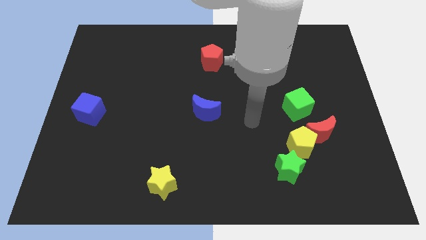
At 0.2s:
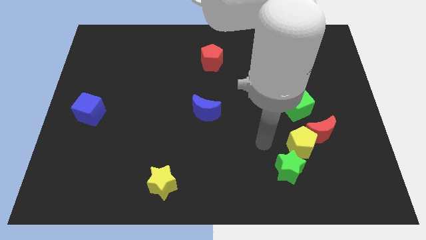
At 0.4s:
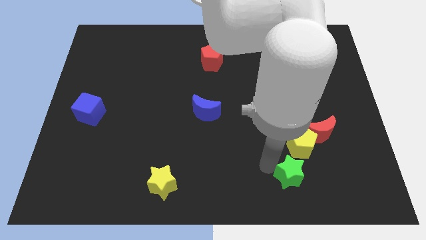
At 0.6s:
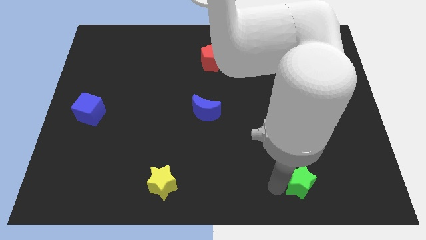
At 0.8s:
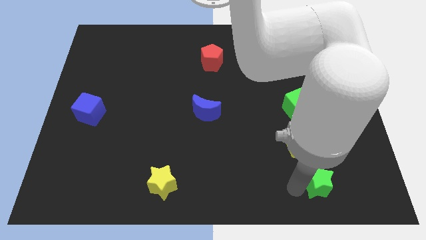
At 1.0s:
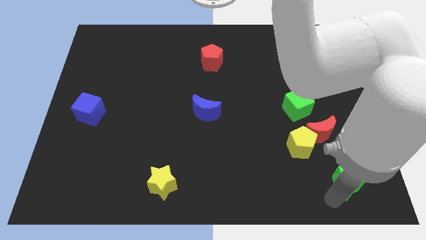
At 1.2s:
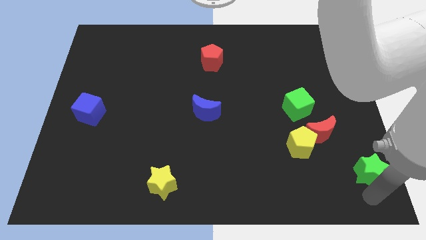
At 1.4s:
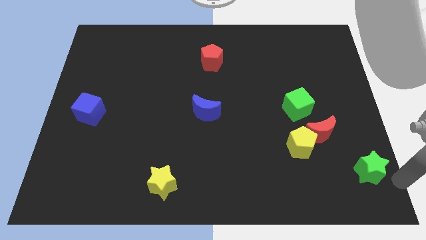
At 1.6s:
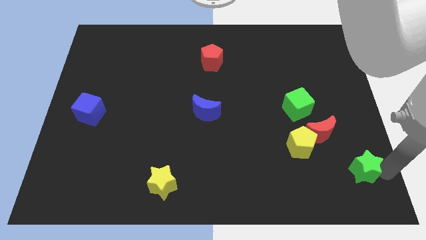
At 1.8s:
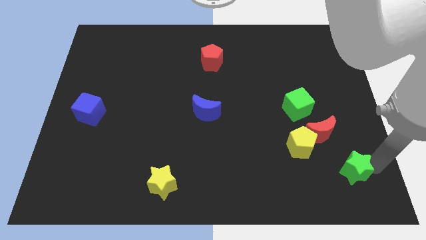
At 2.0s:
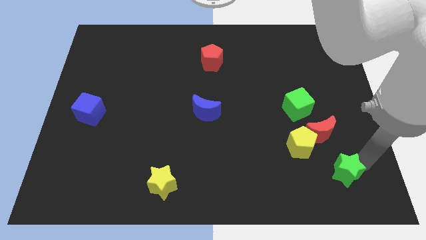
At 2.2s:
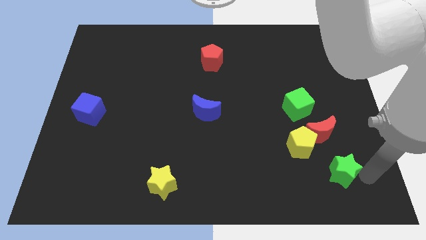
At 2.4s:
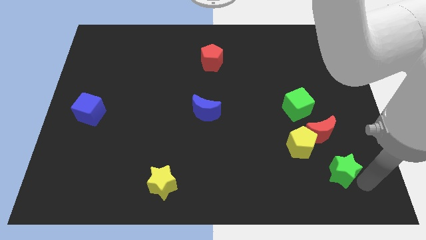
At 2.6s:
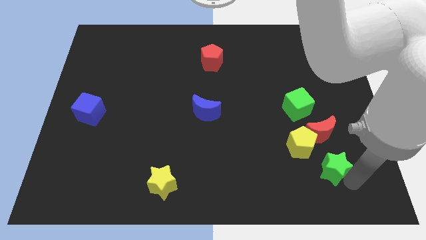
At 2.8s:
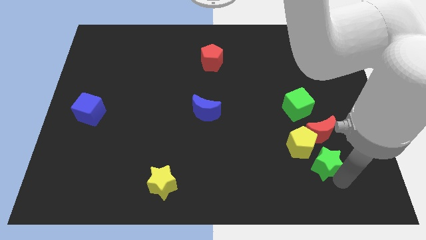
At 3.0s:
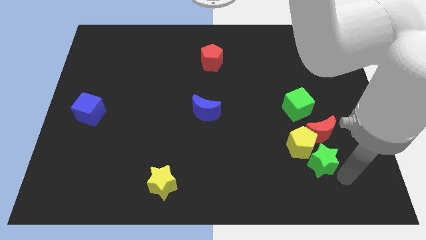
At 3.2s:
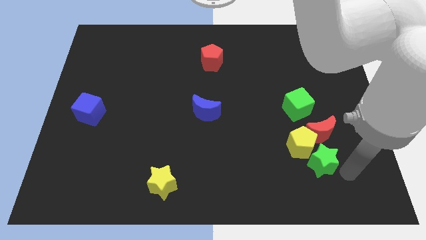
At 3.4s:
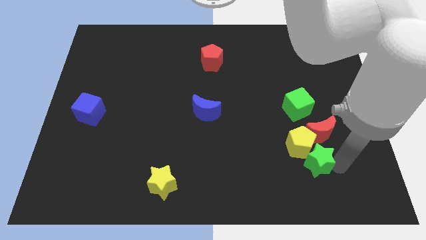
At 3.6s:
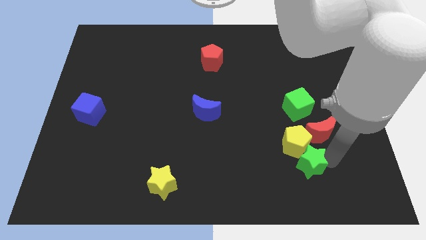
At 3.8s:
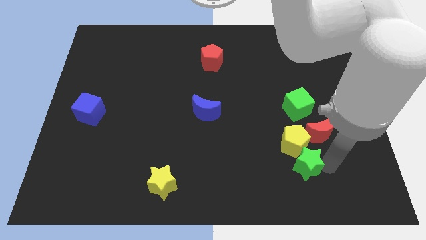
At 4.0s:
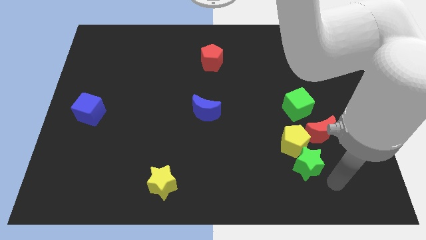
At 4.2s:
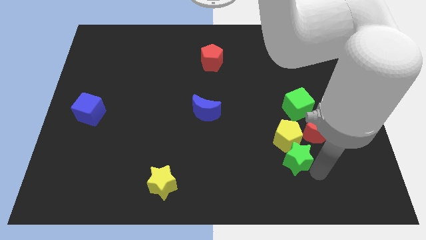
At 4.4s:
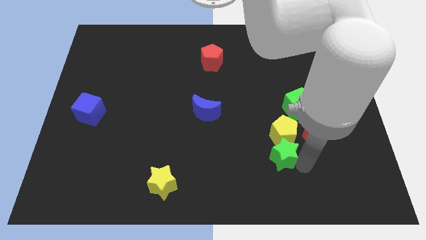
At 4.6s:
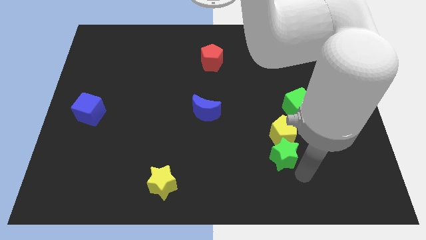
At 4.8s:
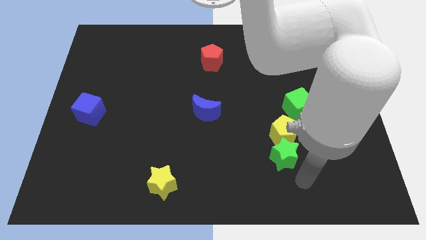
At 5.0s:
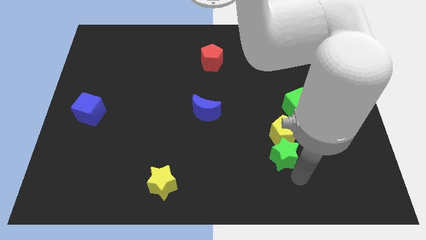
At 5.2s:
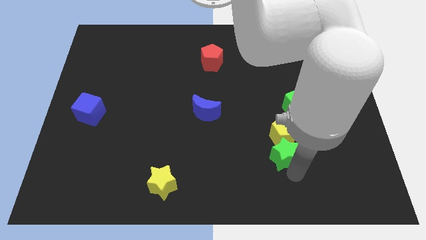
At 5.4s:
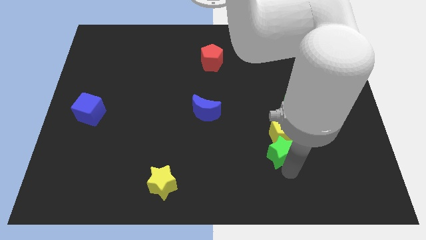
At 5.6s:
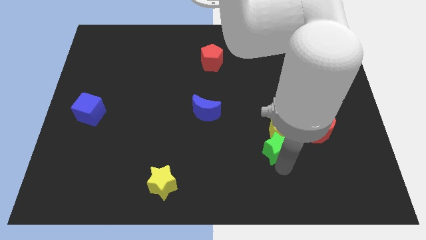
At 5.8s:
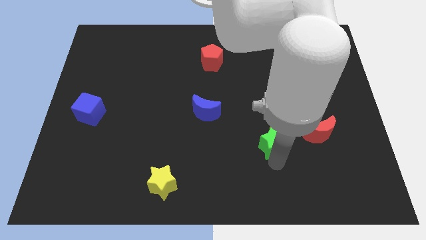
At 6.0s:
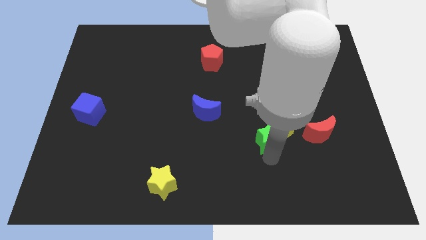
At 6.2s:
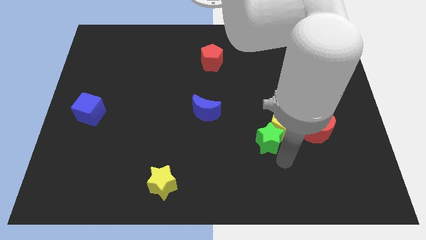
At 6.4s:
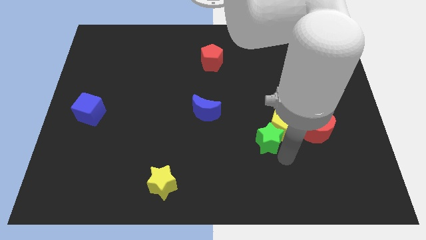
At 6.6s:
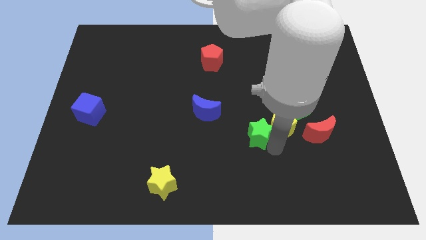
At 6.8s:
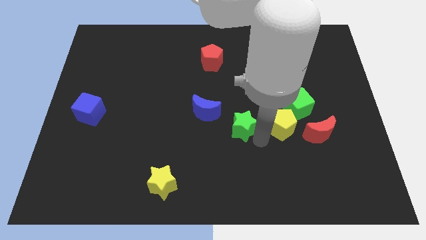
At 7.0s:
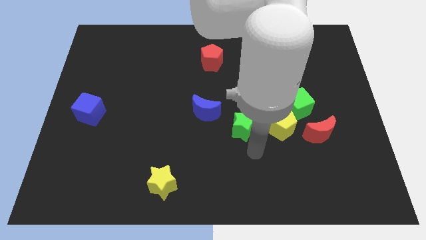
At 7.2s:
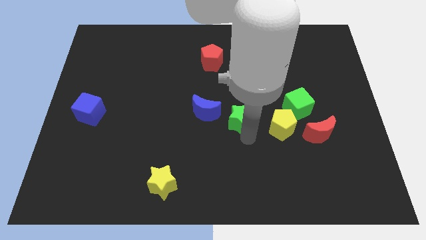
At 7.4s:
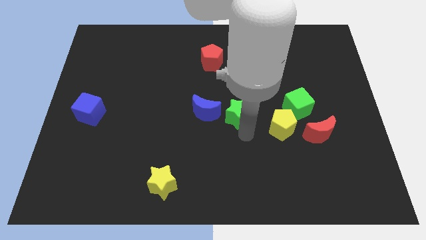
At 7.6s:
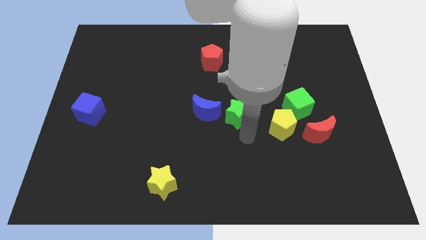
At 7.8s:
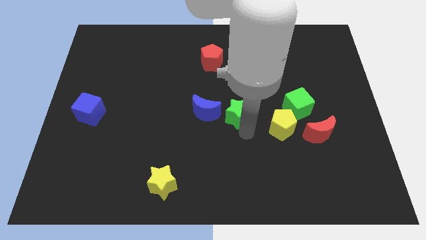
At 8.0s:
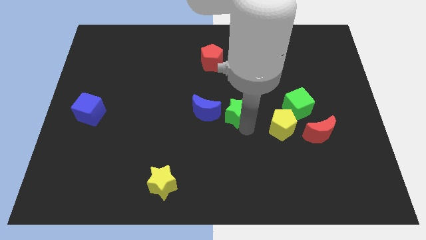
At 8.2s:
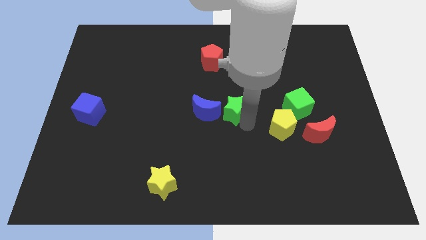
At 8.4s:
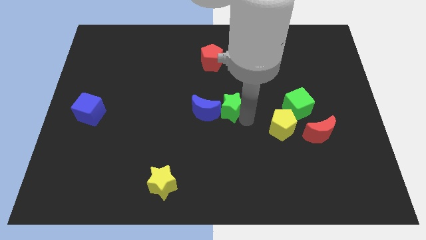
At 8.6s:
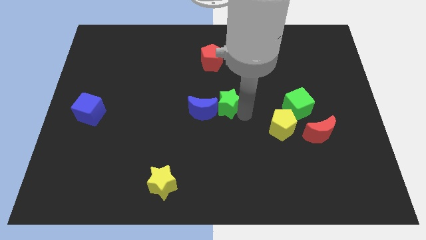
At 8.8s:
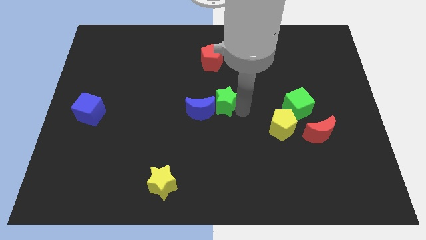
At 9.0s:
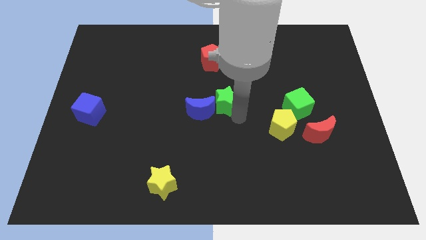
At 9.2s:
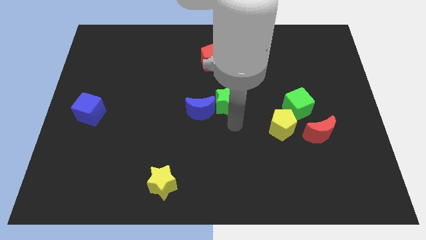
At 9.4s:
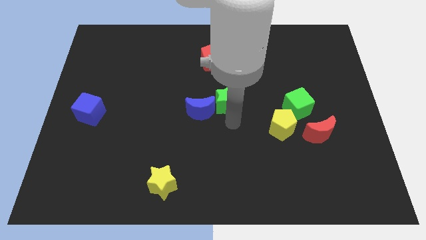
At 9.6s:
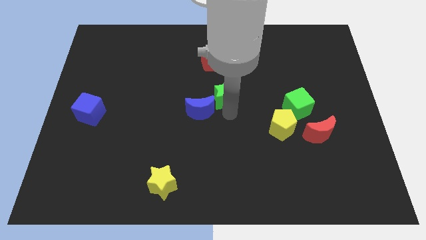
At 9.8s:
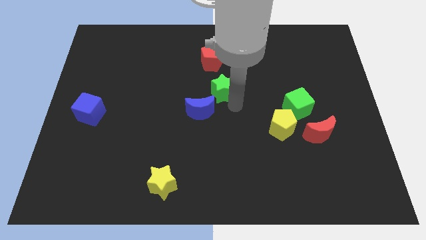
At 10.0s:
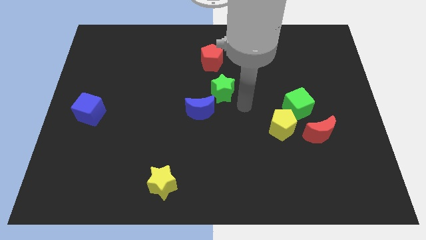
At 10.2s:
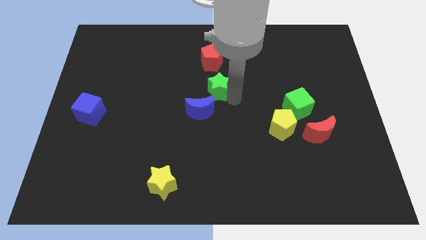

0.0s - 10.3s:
push the green star to the top side of the blue moon

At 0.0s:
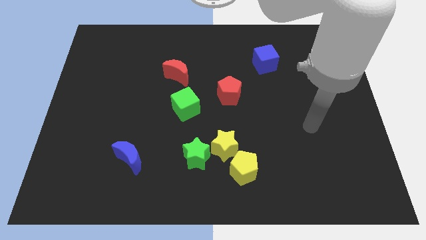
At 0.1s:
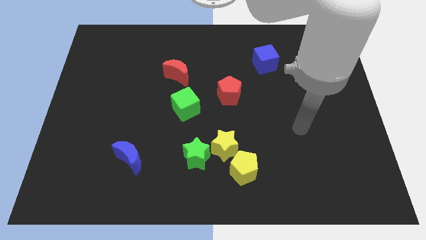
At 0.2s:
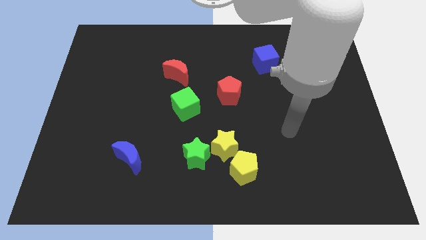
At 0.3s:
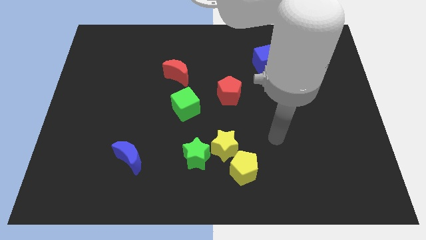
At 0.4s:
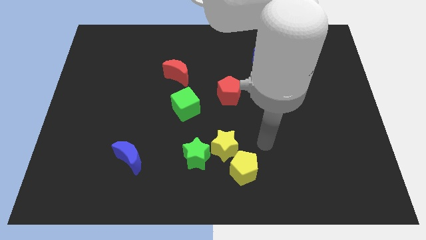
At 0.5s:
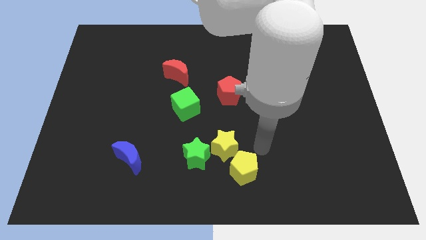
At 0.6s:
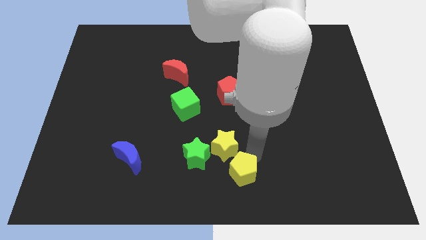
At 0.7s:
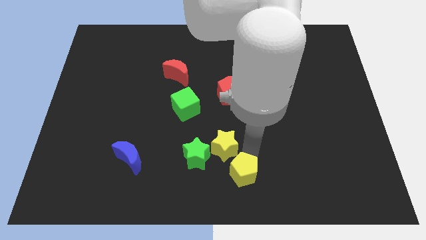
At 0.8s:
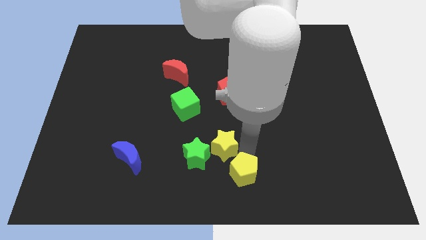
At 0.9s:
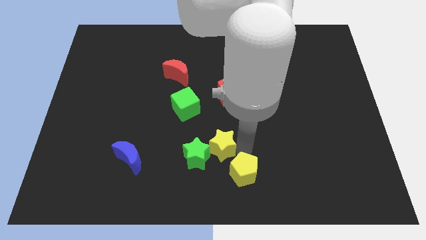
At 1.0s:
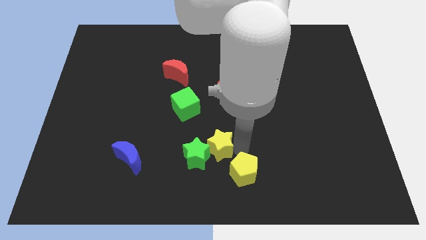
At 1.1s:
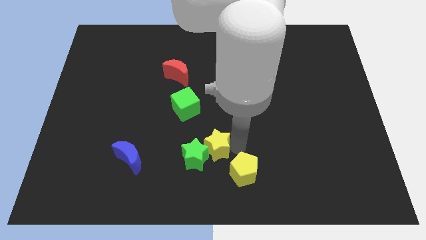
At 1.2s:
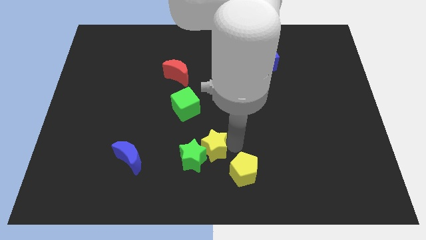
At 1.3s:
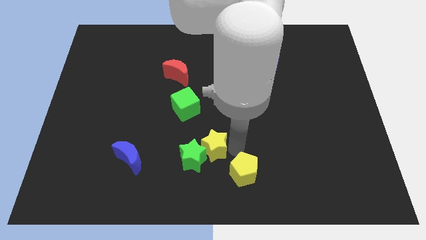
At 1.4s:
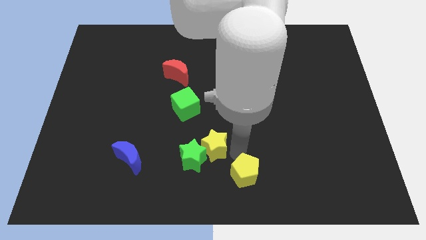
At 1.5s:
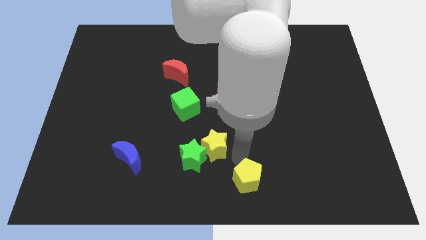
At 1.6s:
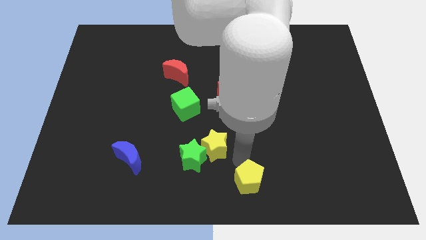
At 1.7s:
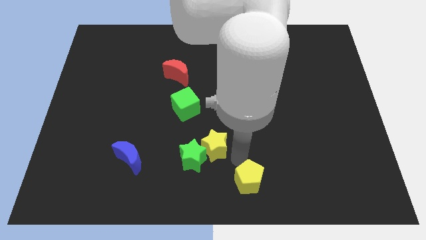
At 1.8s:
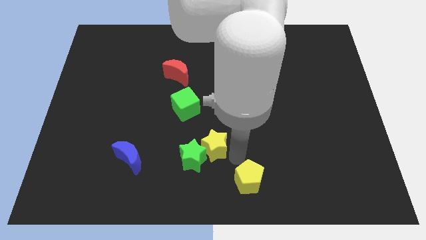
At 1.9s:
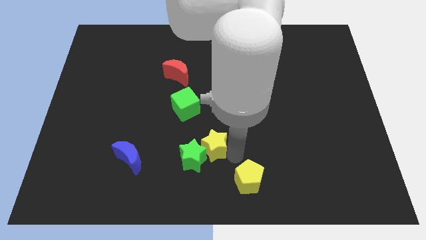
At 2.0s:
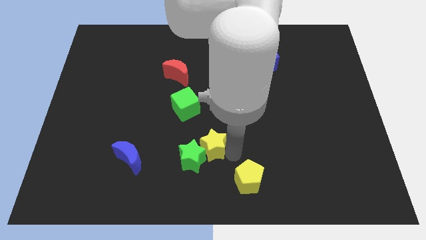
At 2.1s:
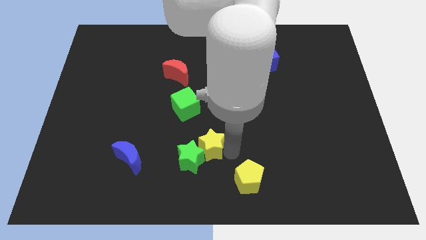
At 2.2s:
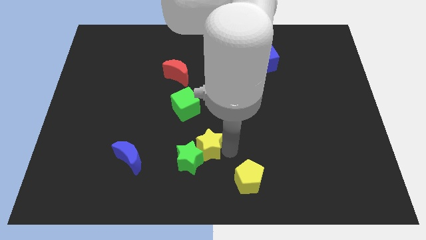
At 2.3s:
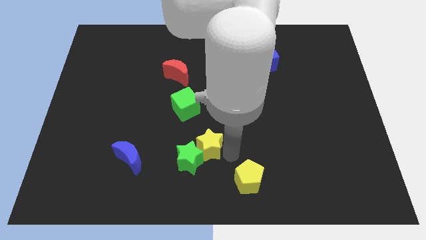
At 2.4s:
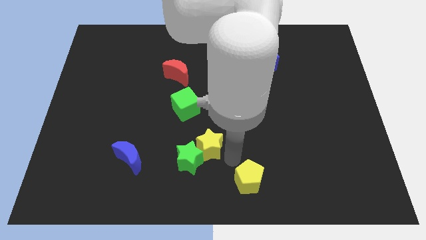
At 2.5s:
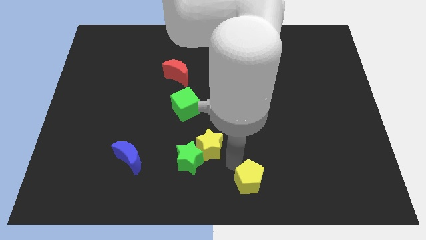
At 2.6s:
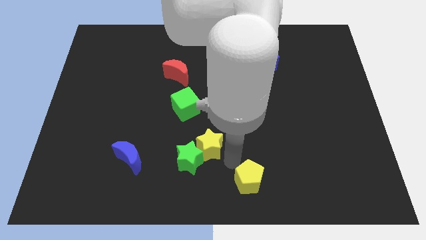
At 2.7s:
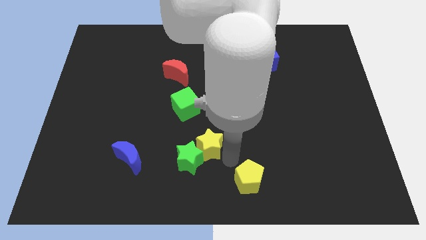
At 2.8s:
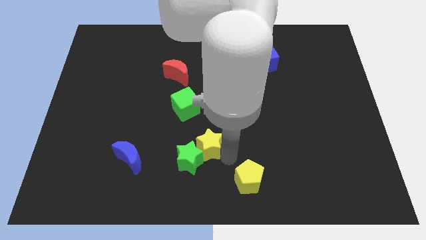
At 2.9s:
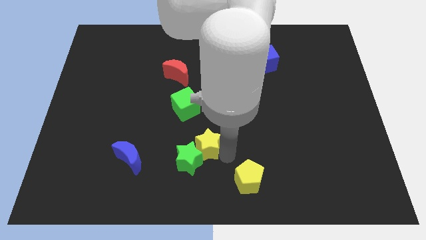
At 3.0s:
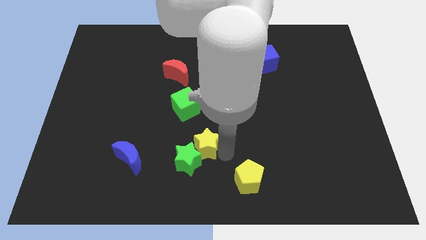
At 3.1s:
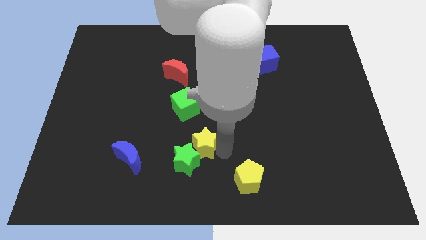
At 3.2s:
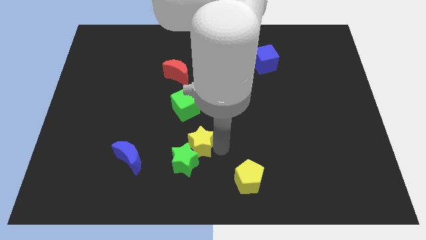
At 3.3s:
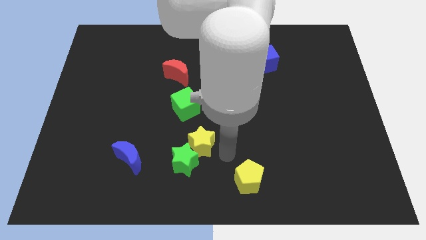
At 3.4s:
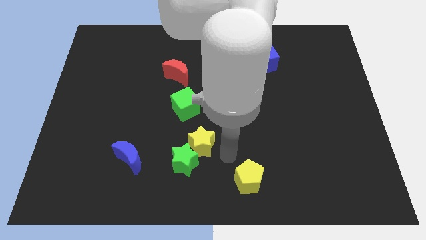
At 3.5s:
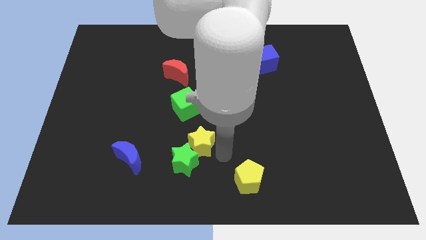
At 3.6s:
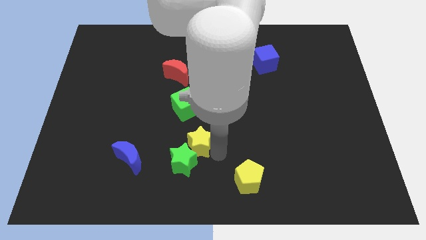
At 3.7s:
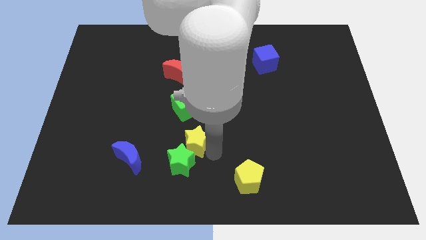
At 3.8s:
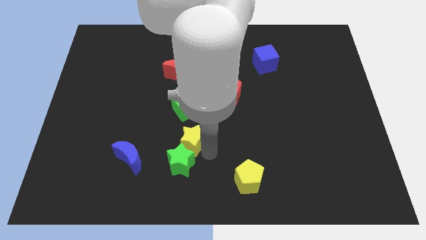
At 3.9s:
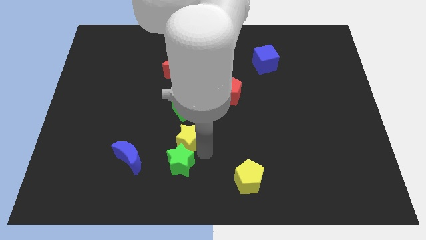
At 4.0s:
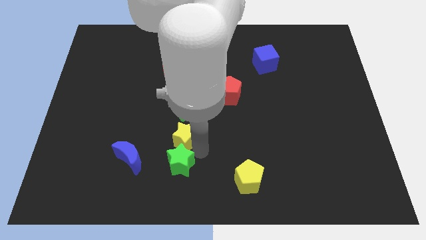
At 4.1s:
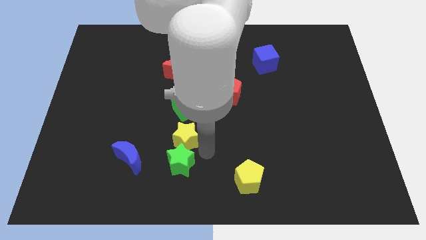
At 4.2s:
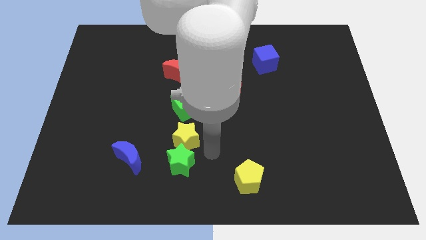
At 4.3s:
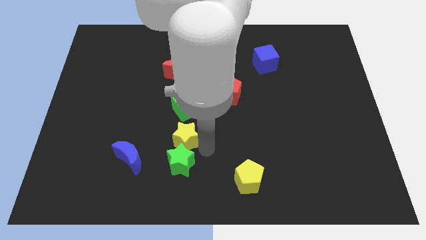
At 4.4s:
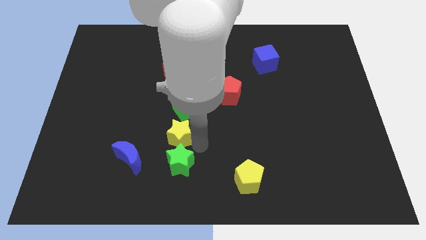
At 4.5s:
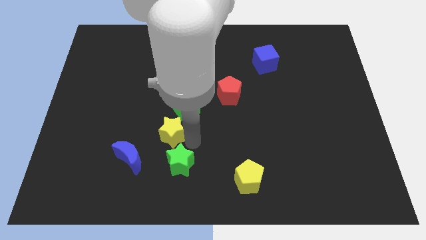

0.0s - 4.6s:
put the yellow star to the bottom left side of the green cube
